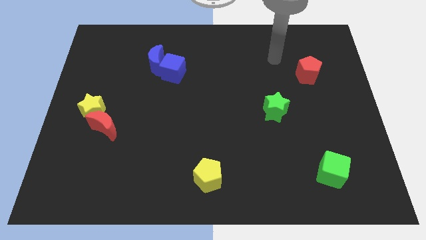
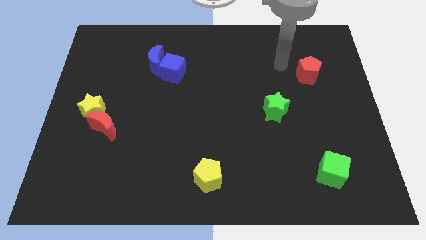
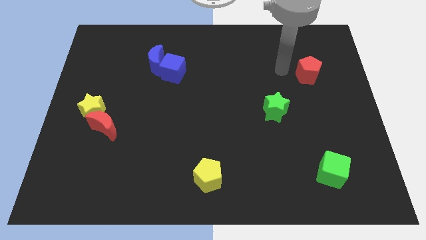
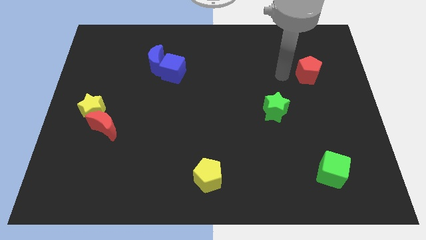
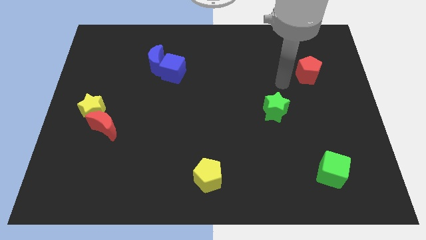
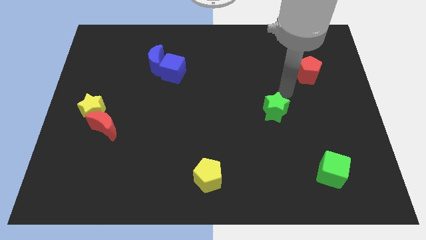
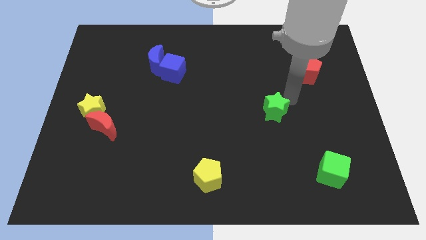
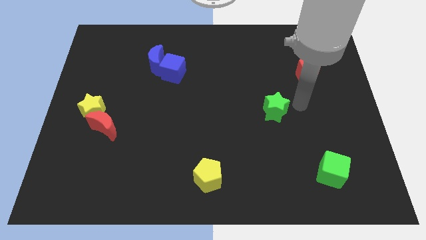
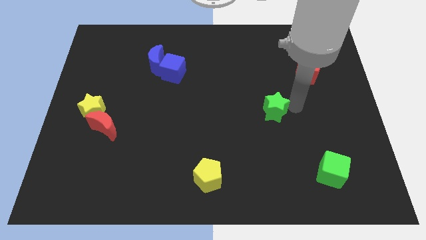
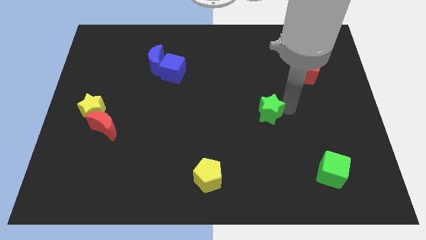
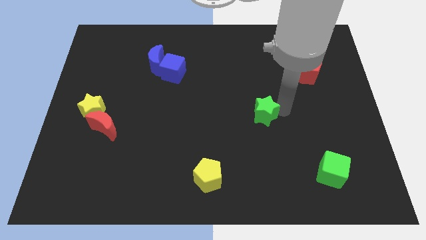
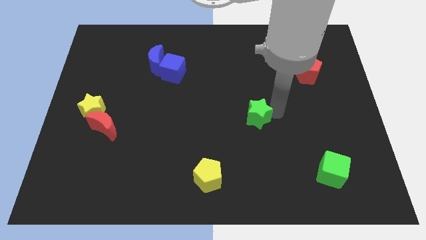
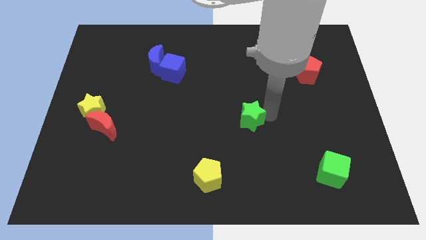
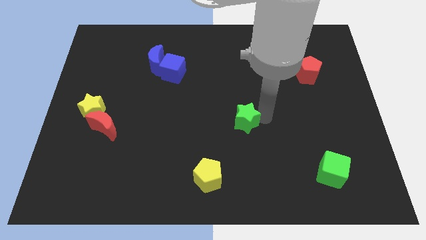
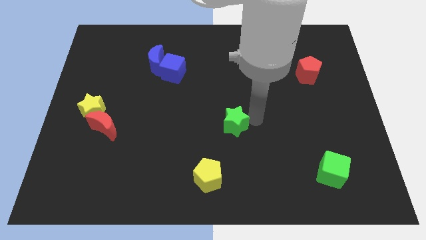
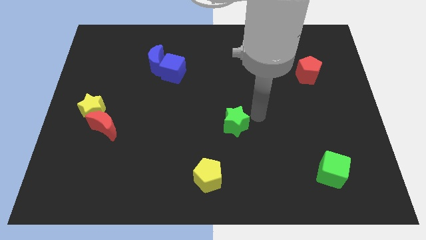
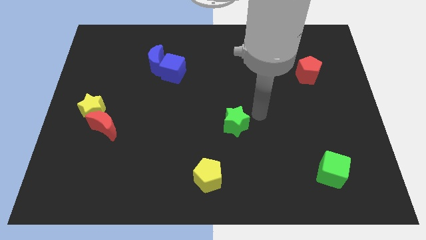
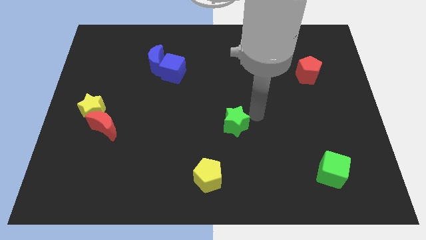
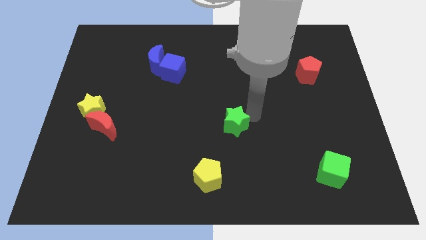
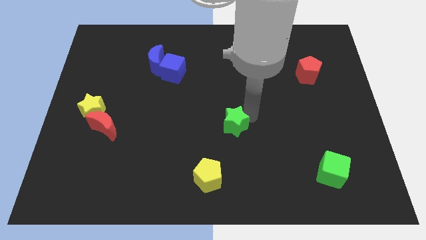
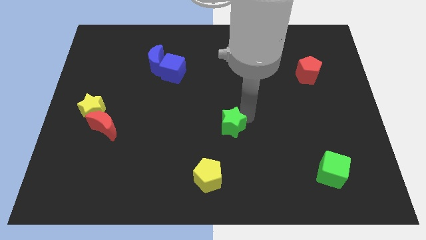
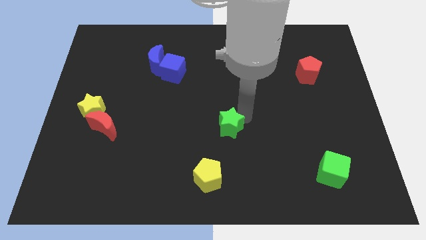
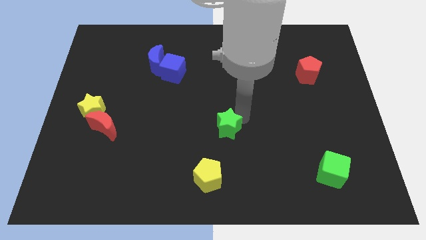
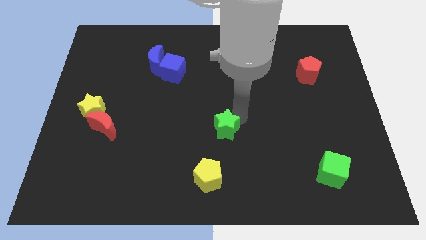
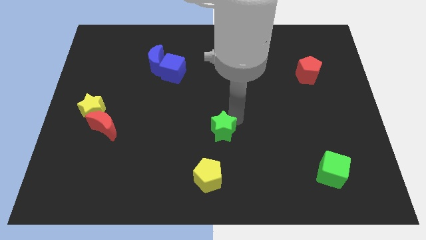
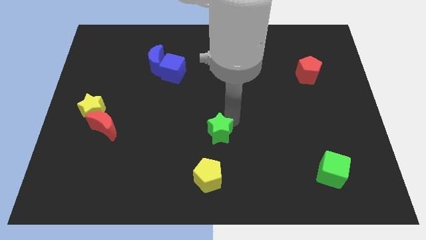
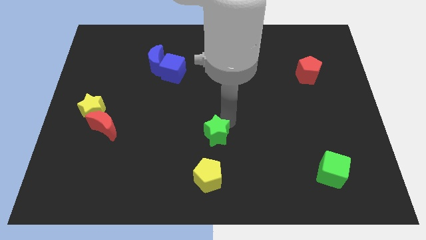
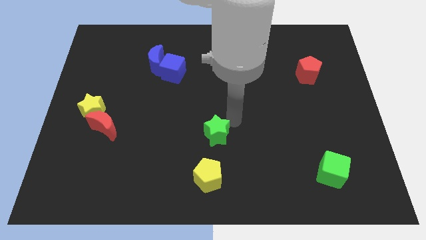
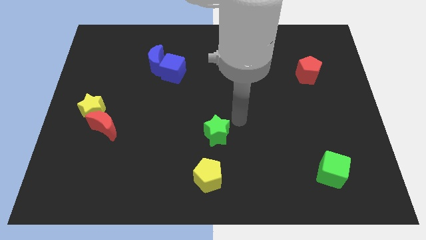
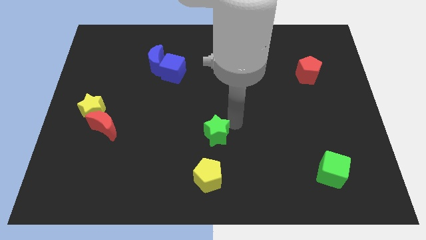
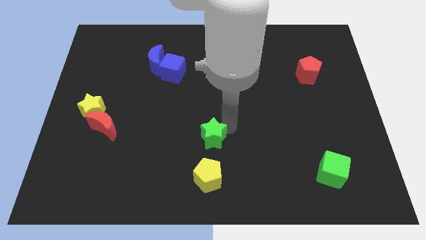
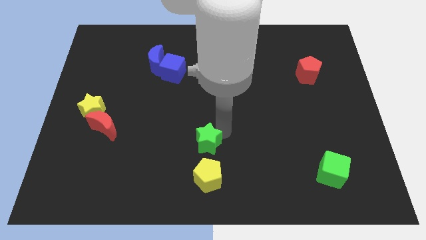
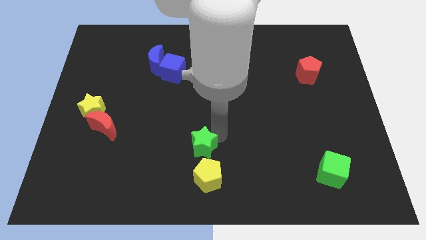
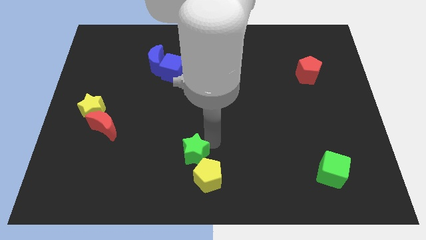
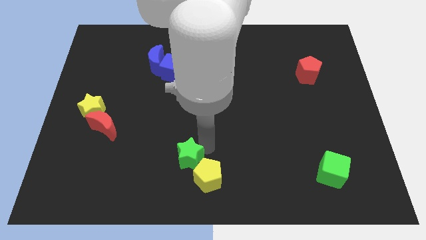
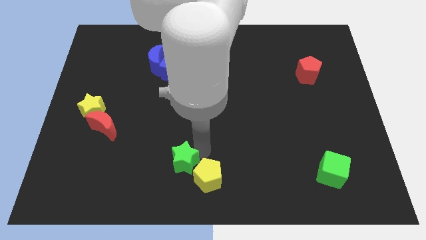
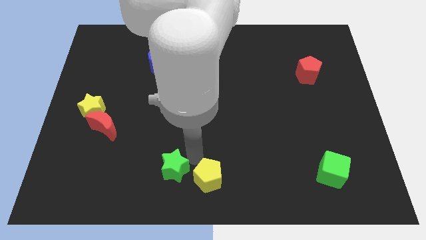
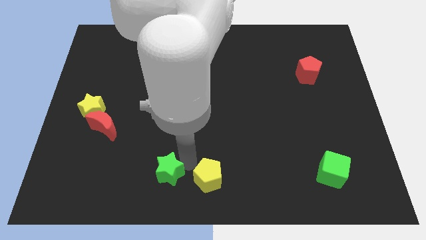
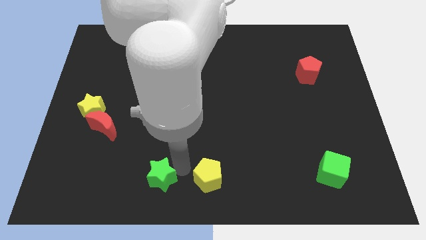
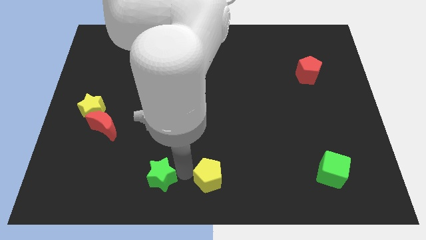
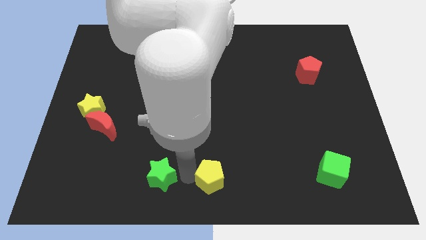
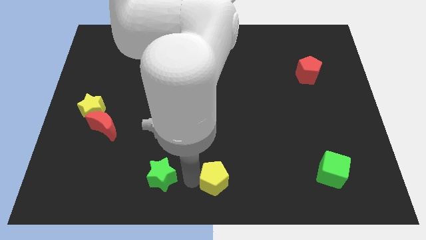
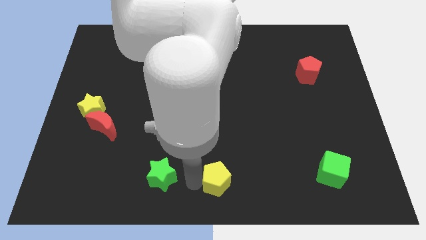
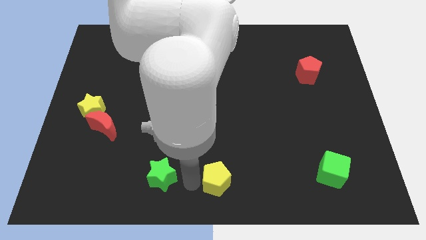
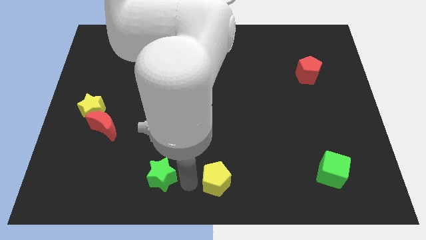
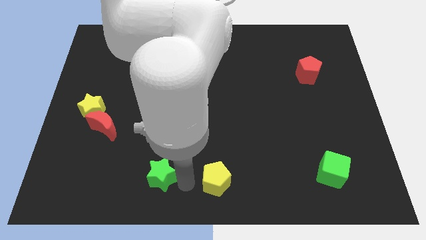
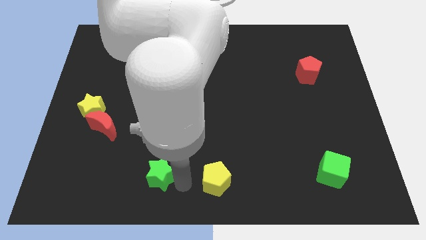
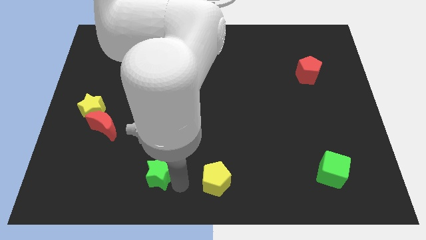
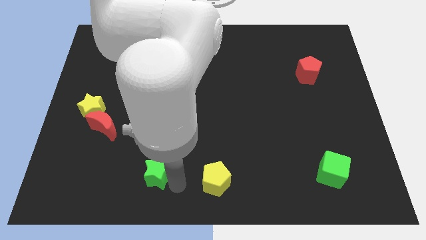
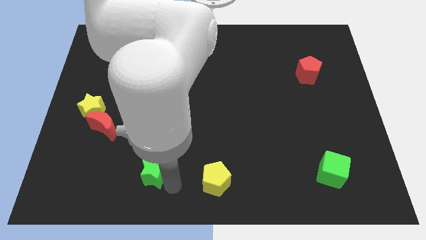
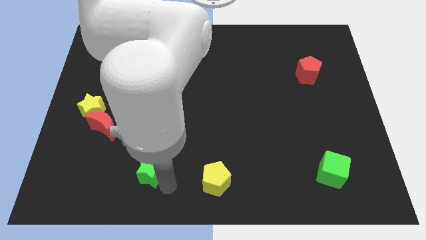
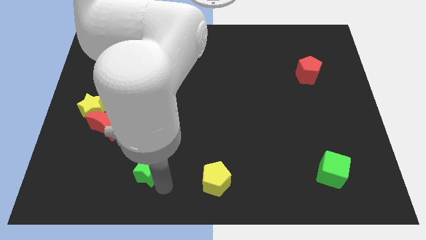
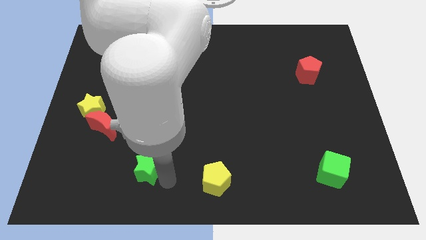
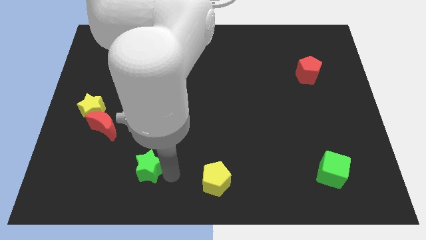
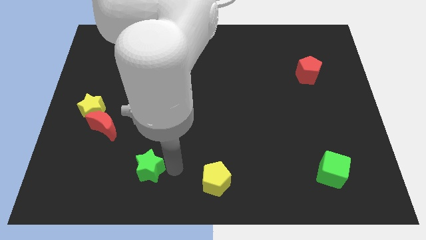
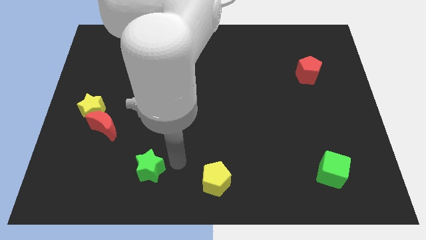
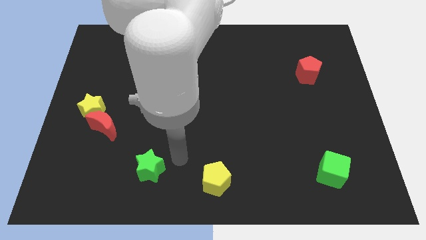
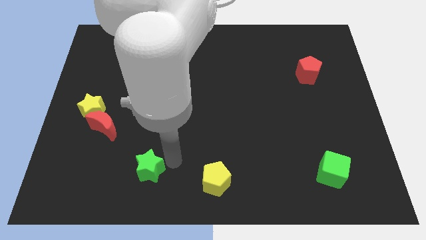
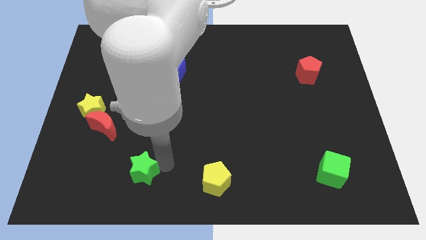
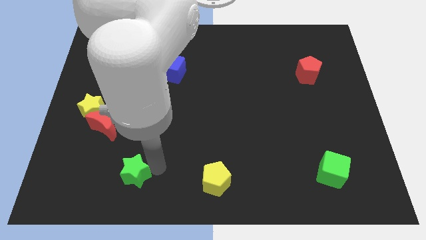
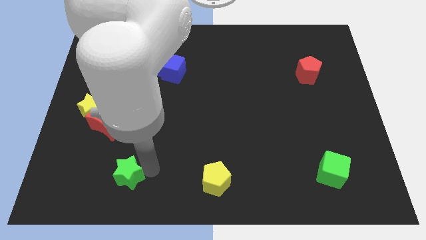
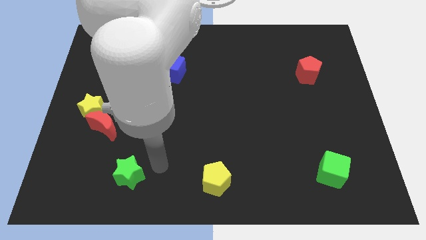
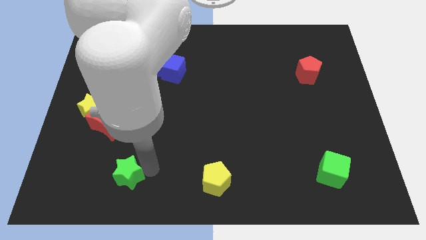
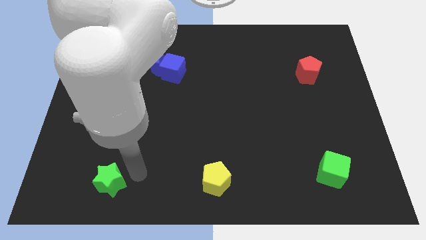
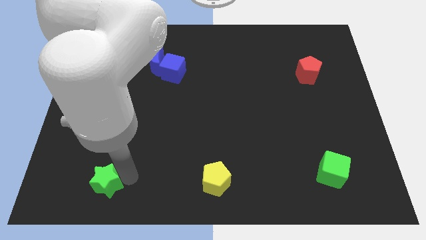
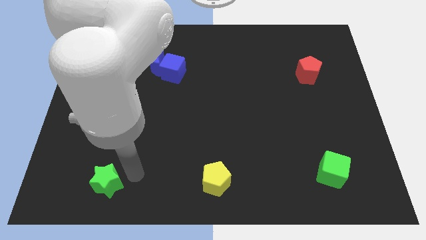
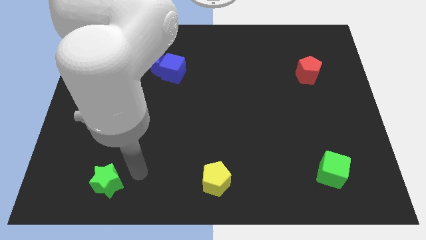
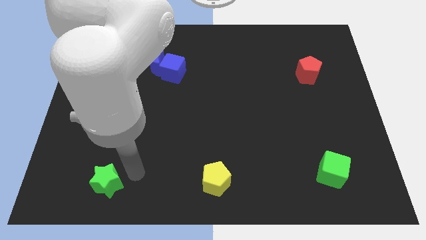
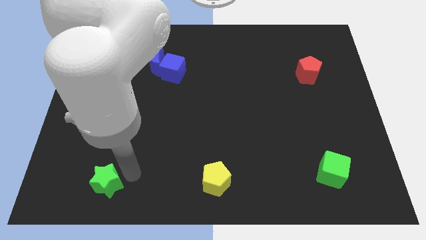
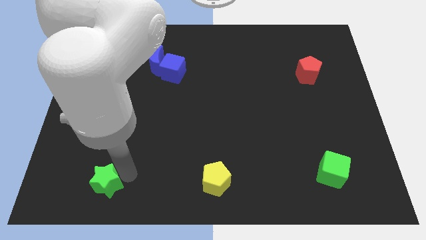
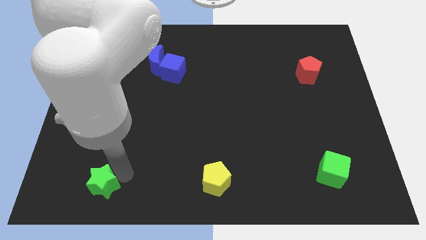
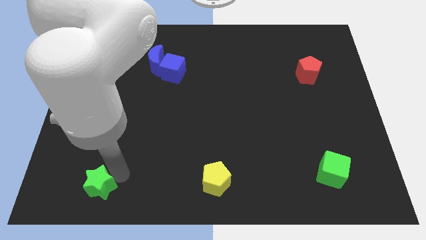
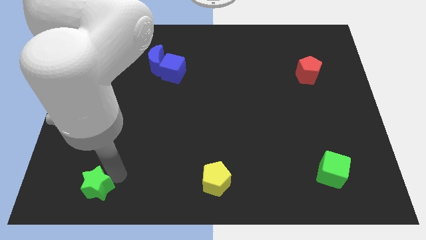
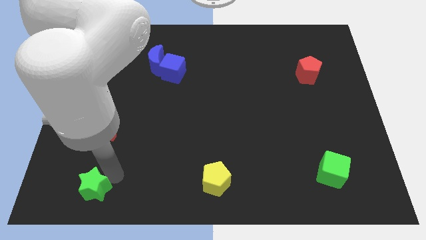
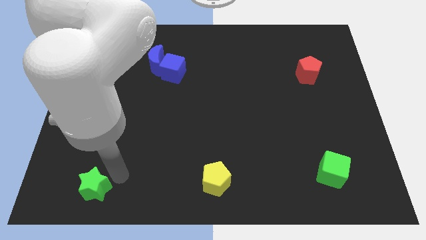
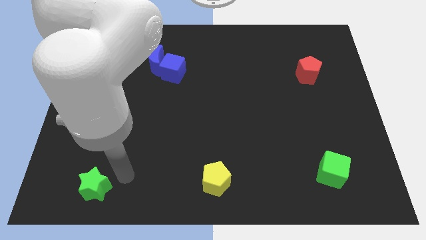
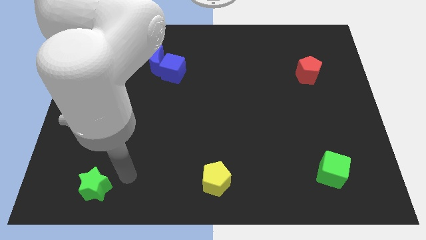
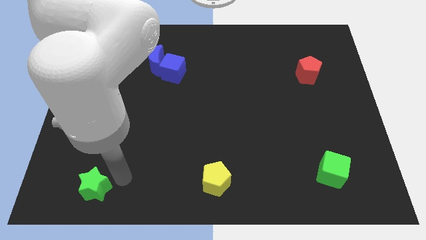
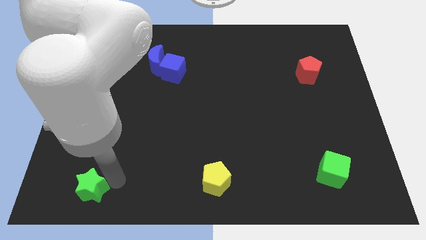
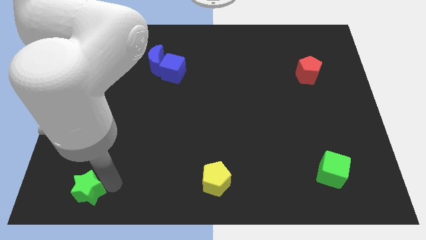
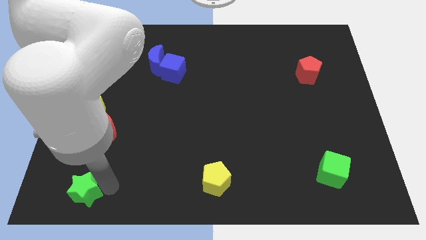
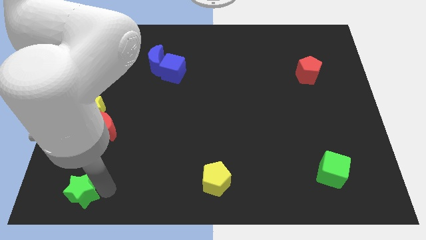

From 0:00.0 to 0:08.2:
move the green star to the lower left corner
